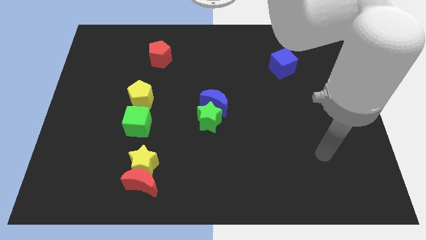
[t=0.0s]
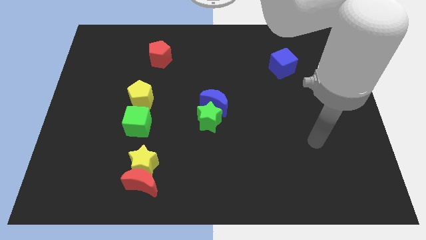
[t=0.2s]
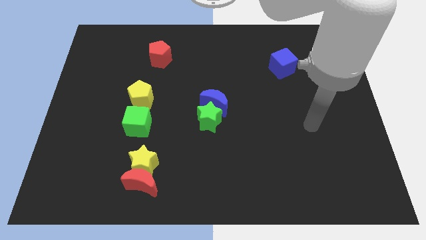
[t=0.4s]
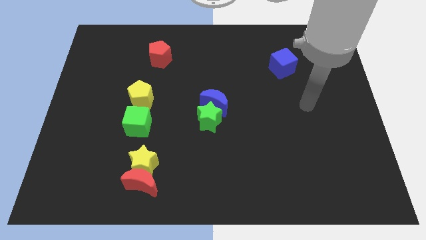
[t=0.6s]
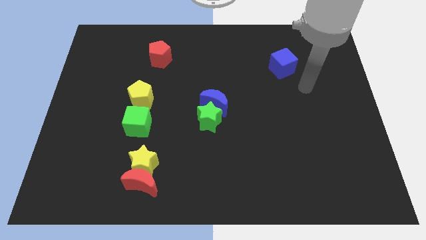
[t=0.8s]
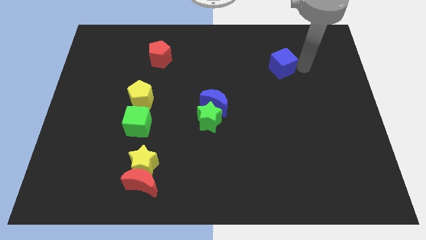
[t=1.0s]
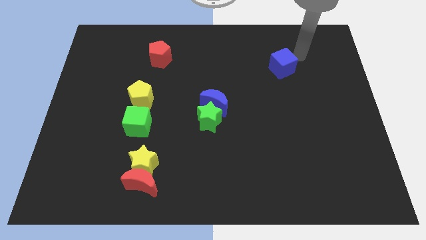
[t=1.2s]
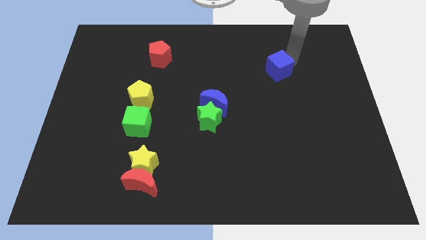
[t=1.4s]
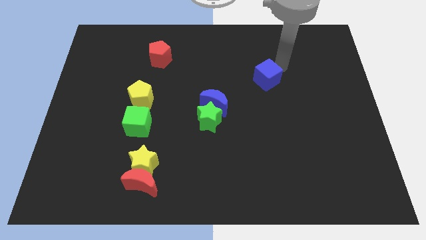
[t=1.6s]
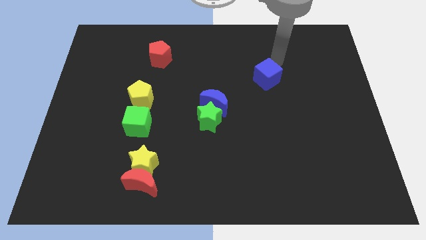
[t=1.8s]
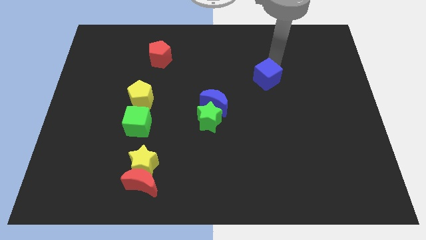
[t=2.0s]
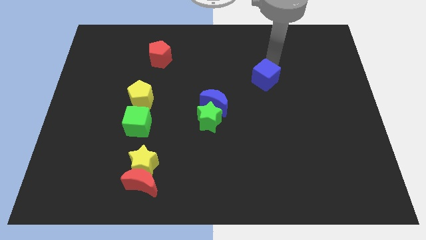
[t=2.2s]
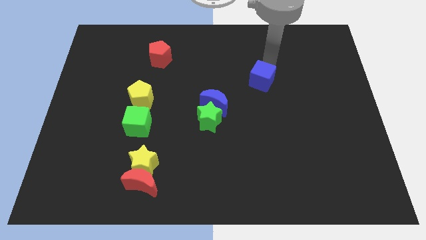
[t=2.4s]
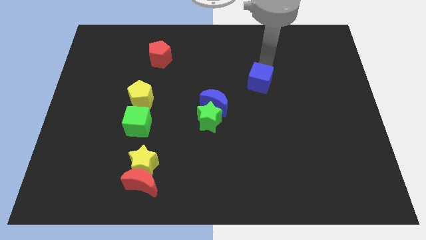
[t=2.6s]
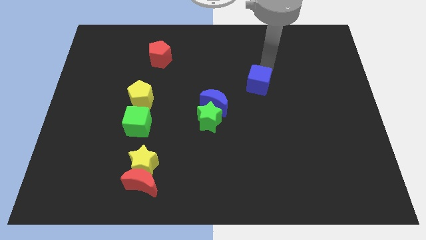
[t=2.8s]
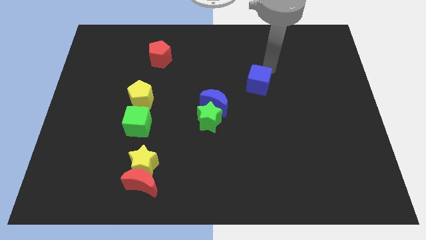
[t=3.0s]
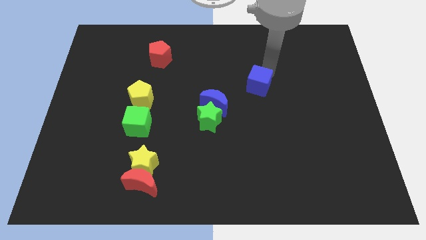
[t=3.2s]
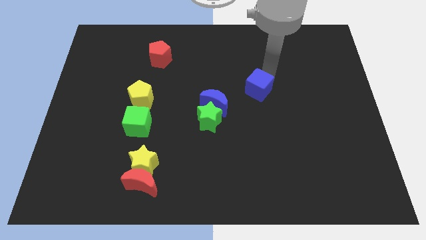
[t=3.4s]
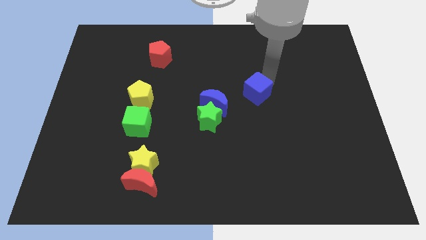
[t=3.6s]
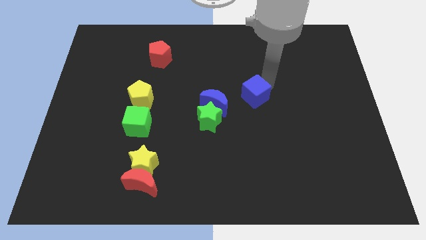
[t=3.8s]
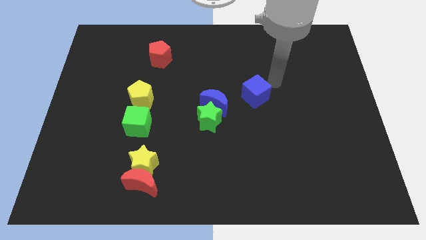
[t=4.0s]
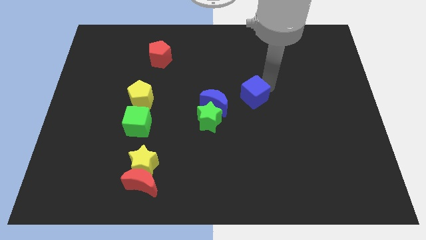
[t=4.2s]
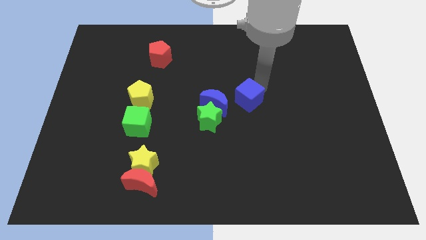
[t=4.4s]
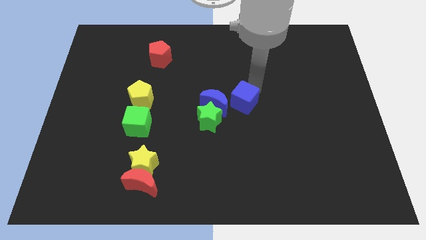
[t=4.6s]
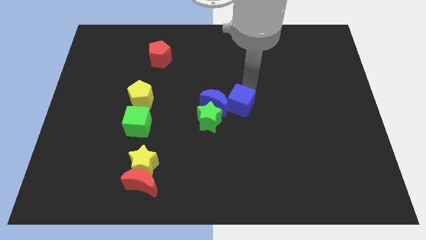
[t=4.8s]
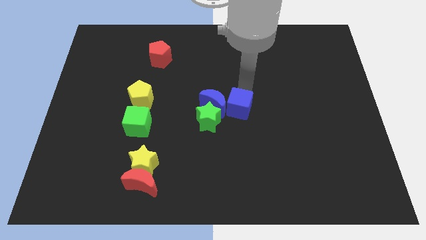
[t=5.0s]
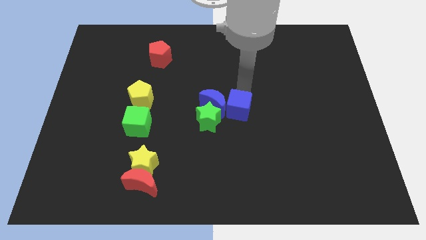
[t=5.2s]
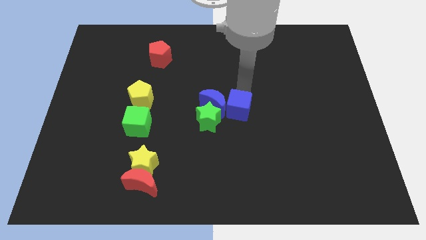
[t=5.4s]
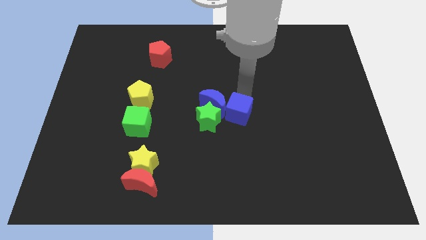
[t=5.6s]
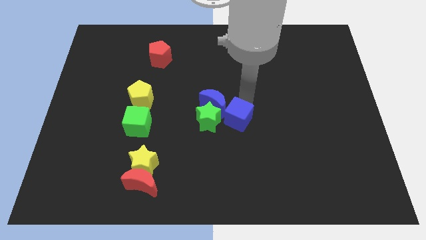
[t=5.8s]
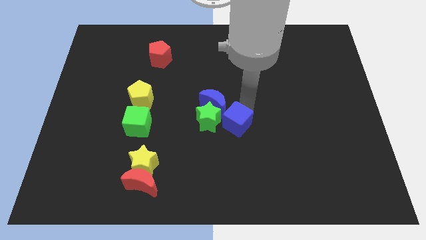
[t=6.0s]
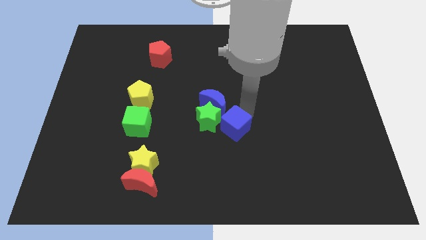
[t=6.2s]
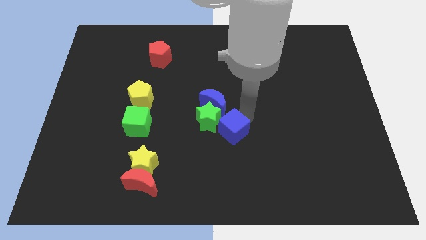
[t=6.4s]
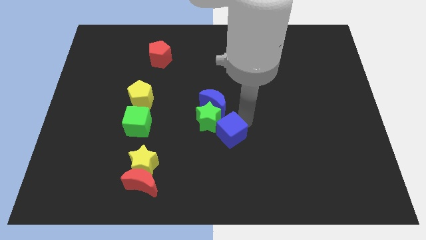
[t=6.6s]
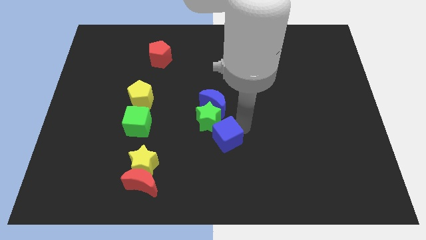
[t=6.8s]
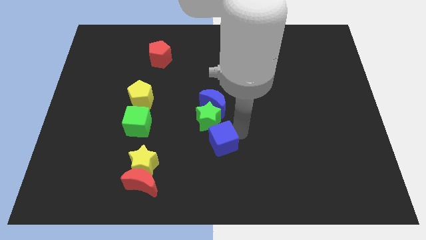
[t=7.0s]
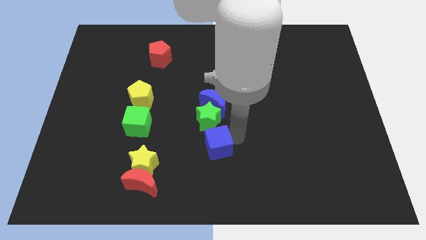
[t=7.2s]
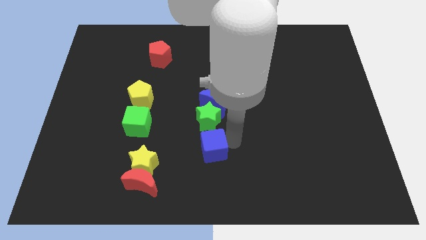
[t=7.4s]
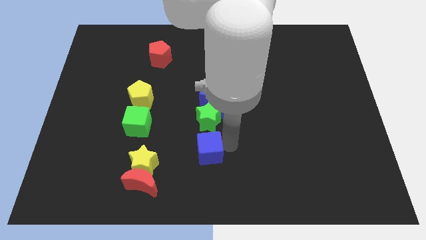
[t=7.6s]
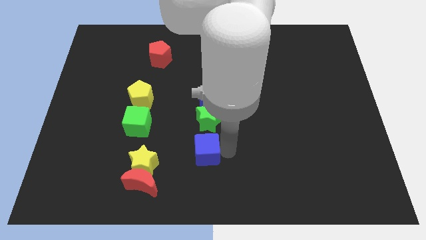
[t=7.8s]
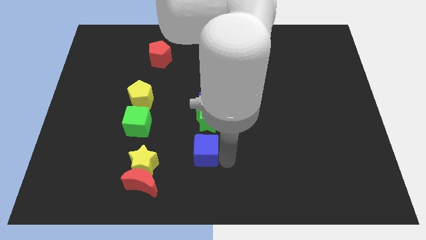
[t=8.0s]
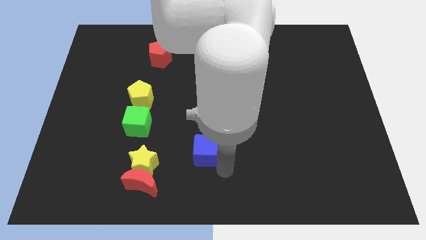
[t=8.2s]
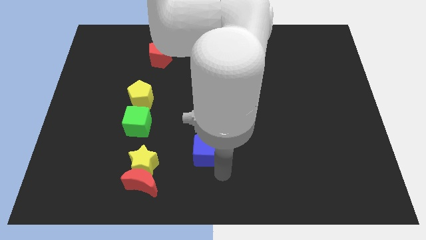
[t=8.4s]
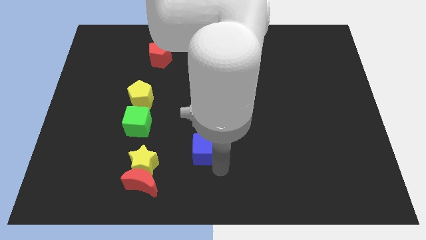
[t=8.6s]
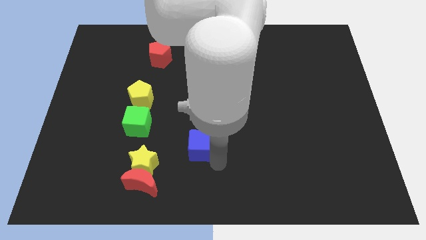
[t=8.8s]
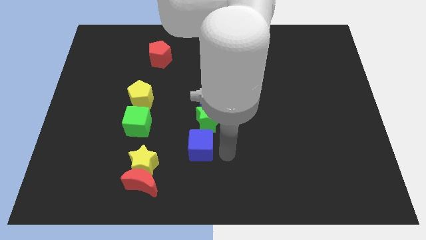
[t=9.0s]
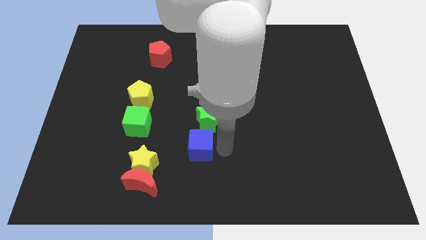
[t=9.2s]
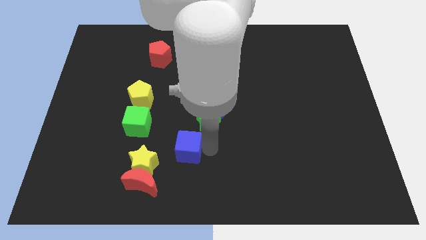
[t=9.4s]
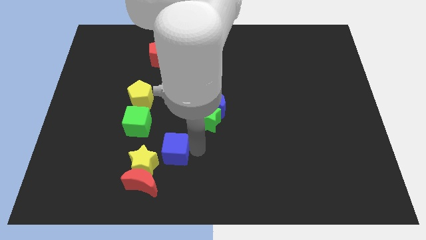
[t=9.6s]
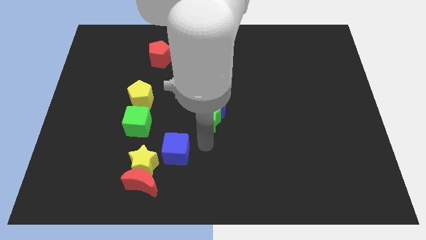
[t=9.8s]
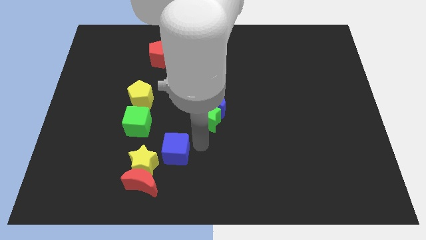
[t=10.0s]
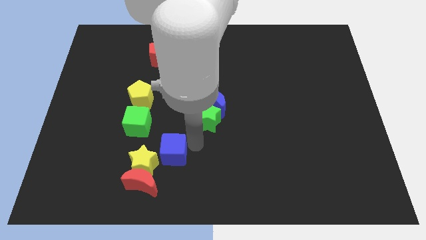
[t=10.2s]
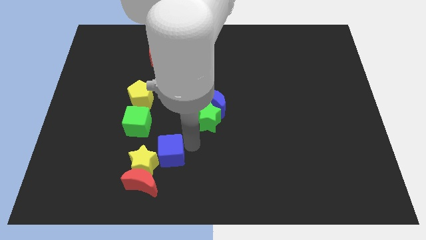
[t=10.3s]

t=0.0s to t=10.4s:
put the blue cube towards the yellow star

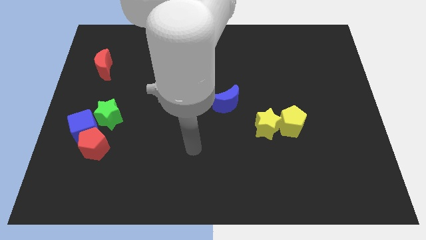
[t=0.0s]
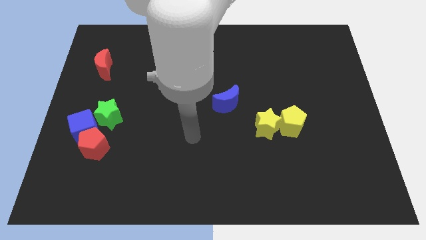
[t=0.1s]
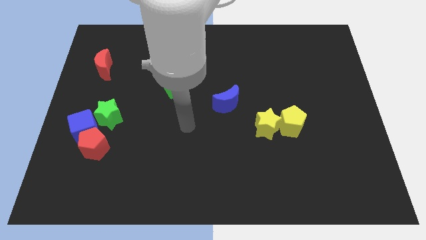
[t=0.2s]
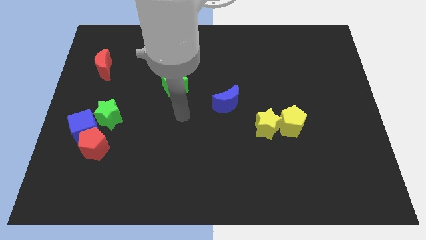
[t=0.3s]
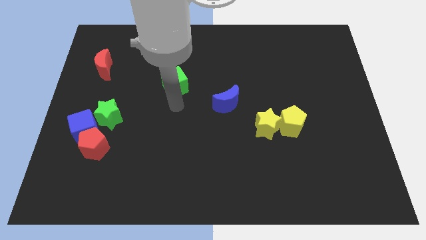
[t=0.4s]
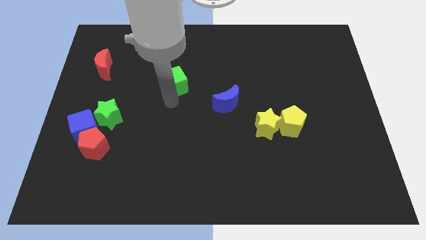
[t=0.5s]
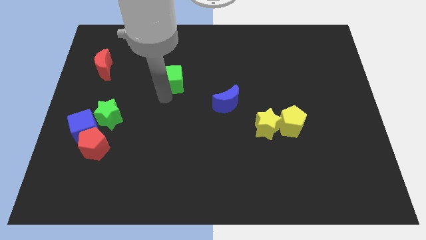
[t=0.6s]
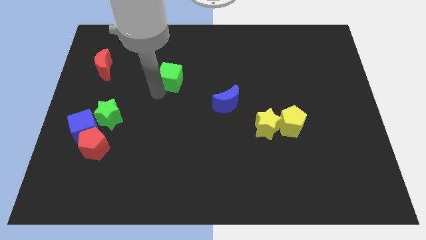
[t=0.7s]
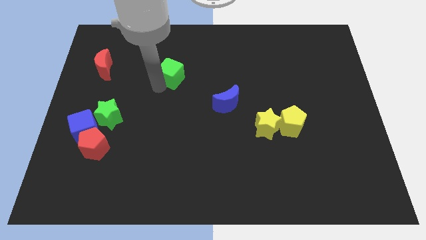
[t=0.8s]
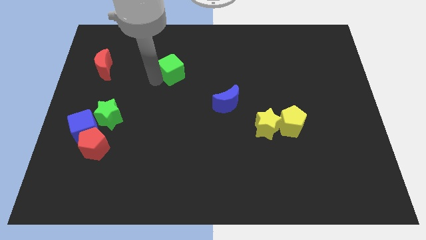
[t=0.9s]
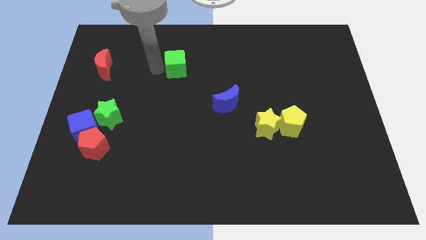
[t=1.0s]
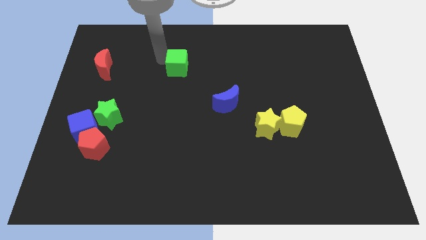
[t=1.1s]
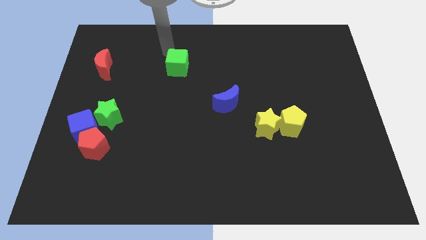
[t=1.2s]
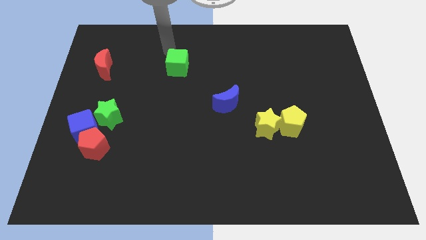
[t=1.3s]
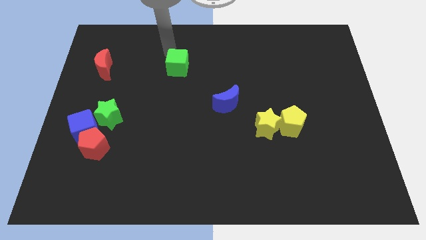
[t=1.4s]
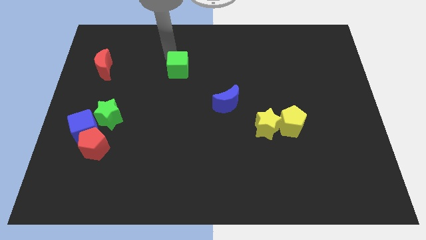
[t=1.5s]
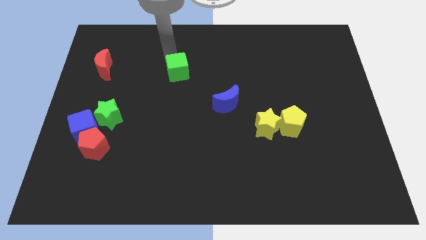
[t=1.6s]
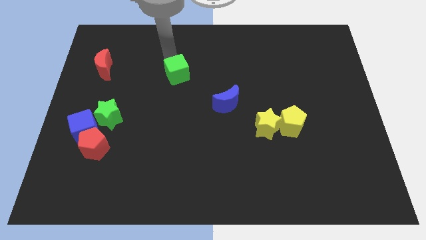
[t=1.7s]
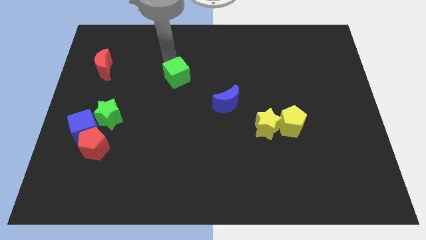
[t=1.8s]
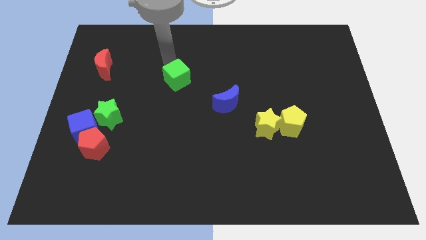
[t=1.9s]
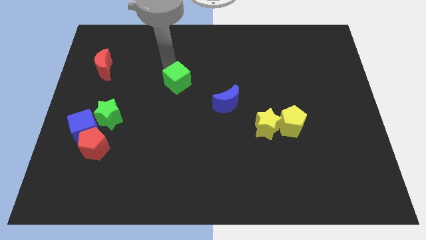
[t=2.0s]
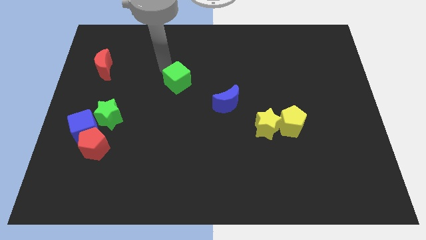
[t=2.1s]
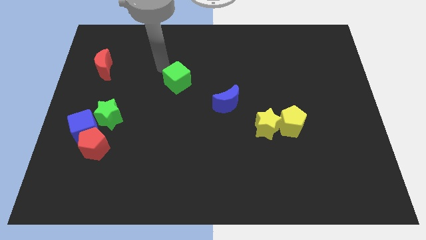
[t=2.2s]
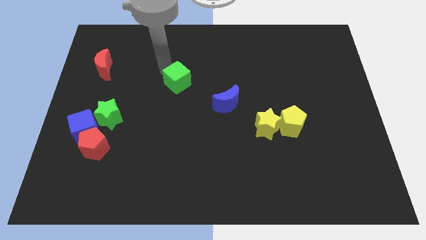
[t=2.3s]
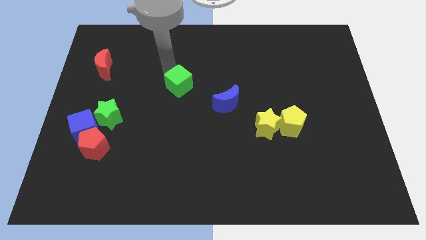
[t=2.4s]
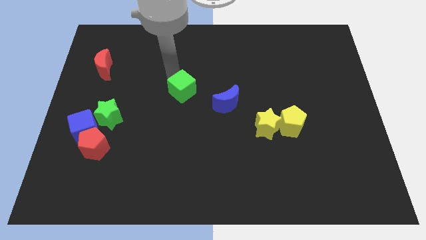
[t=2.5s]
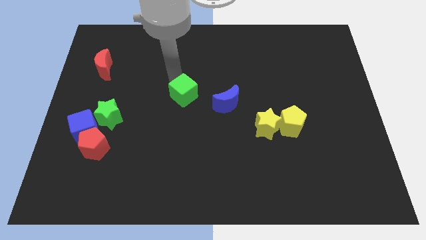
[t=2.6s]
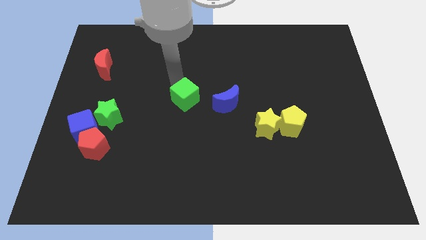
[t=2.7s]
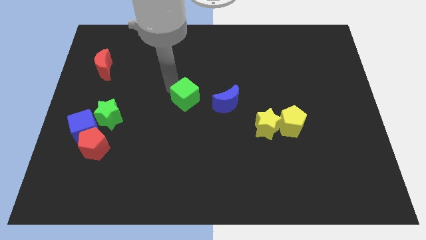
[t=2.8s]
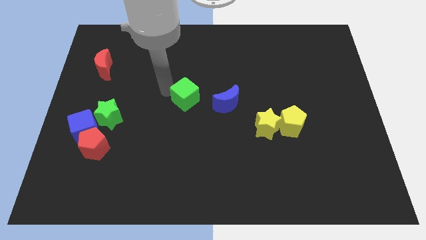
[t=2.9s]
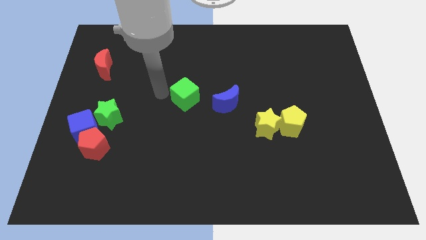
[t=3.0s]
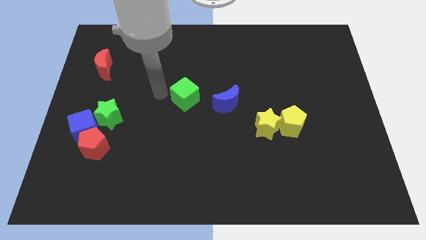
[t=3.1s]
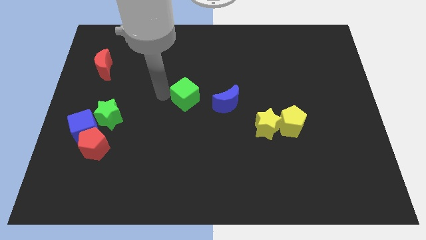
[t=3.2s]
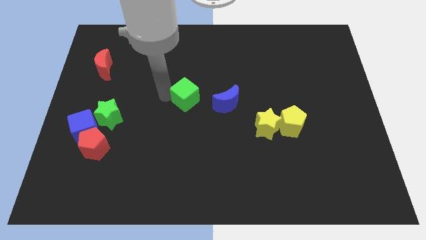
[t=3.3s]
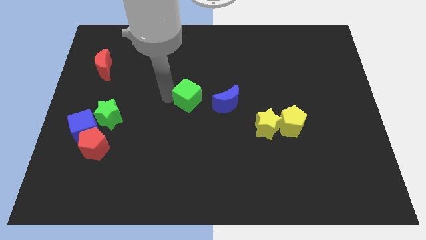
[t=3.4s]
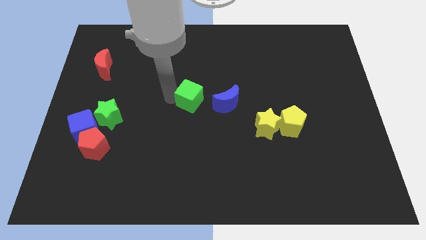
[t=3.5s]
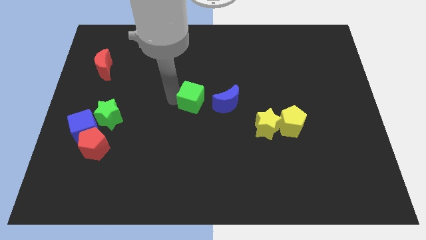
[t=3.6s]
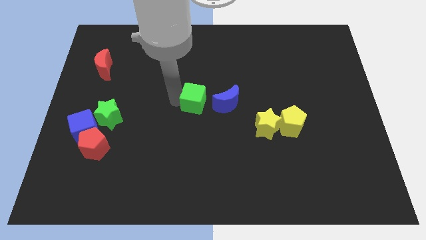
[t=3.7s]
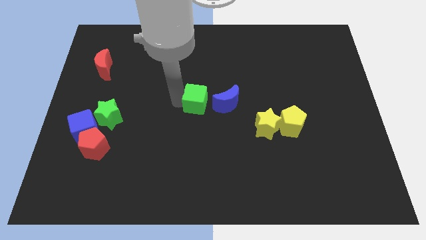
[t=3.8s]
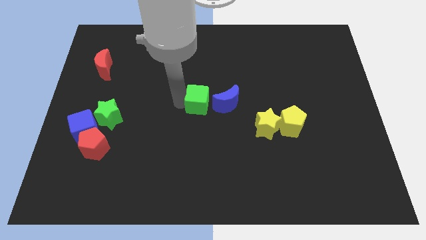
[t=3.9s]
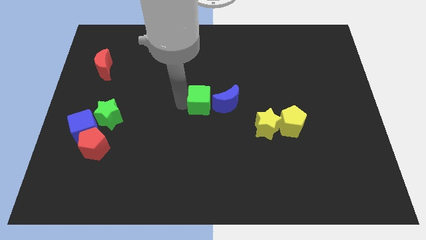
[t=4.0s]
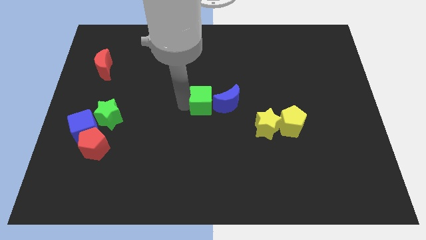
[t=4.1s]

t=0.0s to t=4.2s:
slide the green cube next to the blue moon
